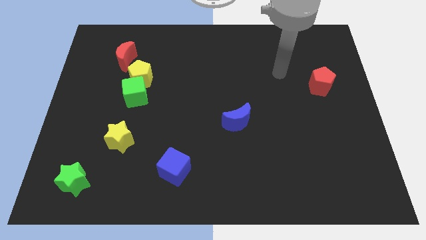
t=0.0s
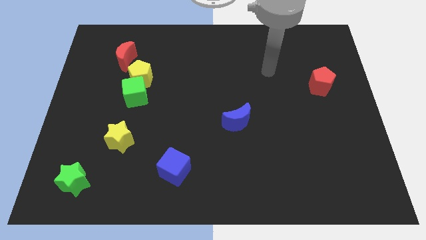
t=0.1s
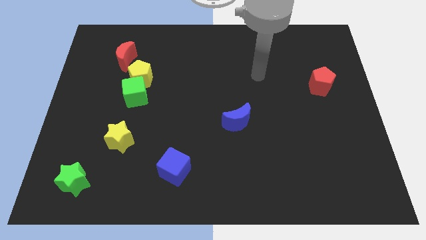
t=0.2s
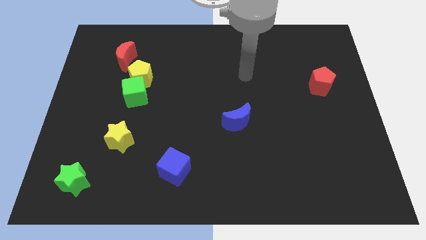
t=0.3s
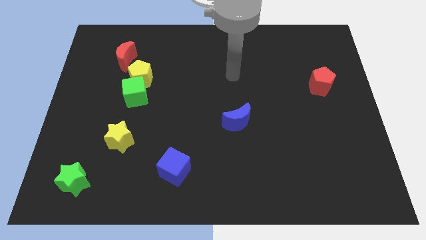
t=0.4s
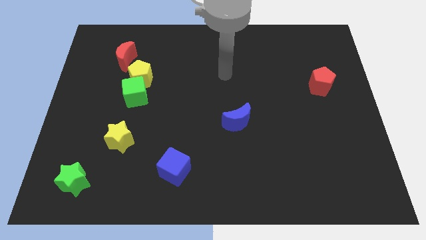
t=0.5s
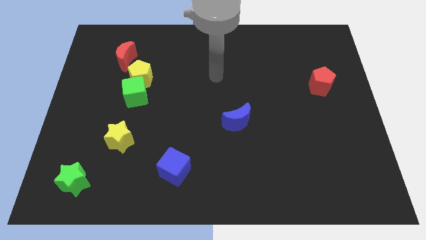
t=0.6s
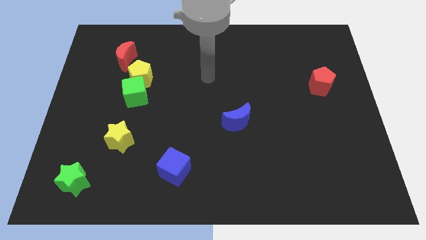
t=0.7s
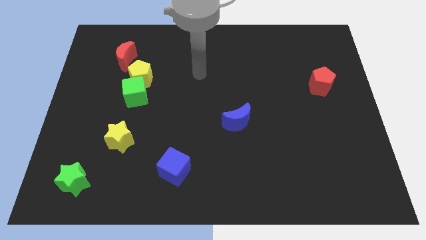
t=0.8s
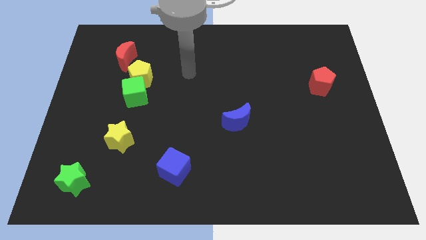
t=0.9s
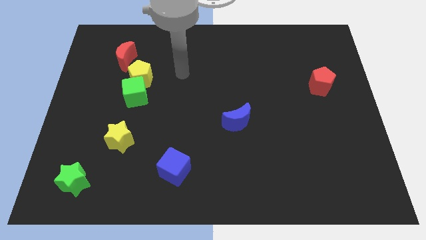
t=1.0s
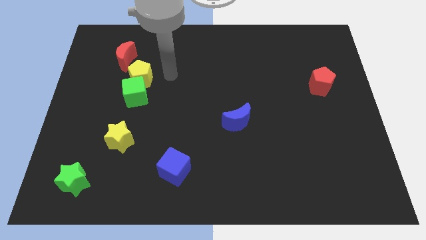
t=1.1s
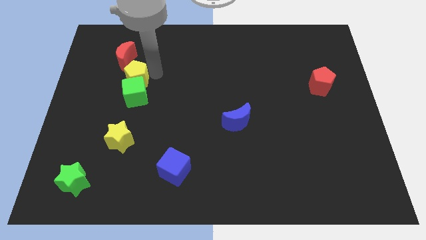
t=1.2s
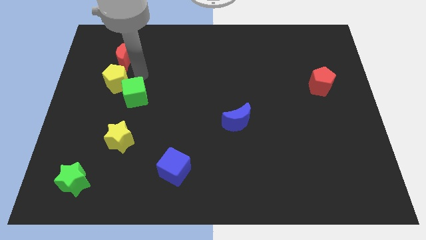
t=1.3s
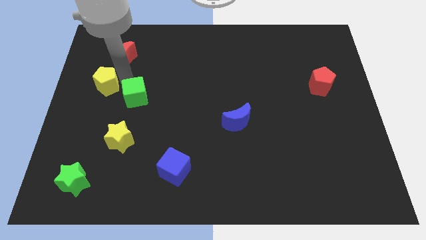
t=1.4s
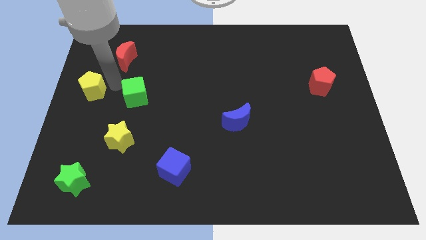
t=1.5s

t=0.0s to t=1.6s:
separate the green cube from the yellow pentagon

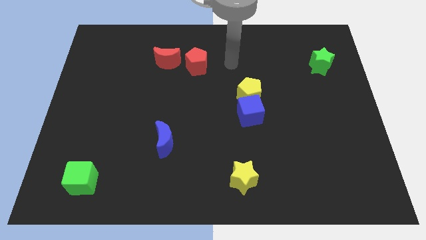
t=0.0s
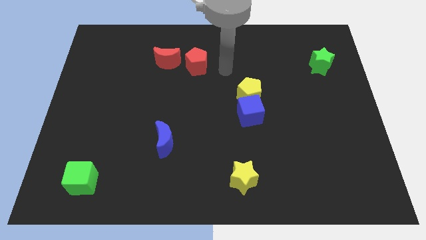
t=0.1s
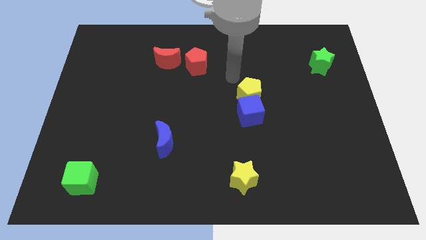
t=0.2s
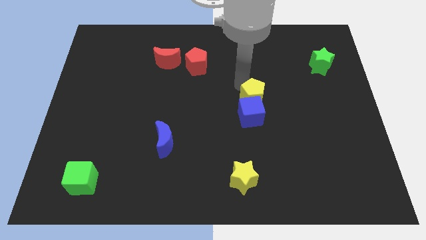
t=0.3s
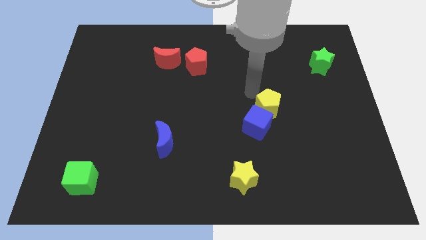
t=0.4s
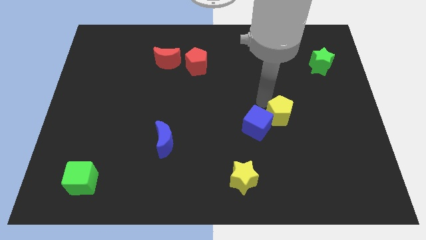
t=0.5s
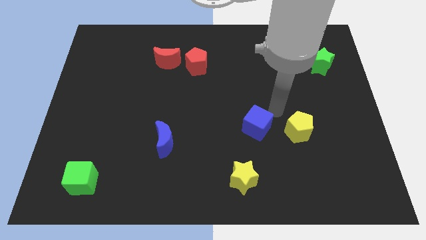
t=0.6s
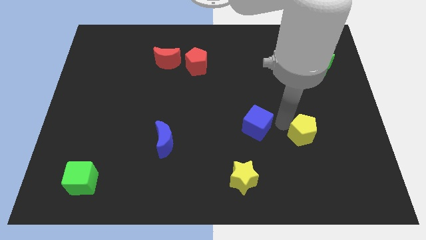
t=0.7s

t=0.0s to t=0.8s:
separate the blue cube from the yellow pentagon

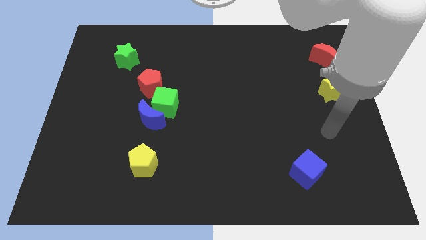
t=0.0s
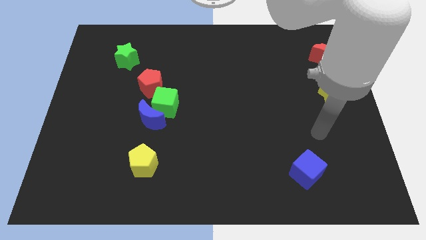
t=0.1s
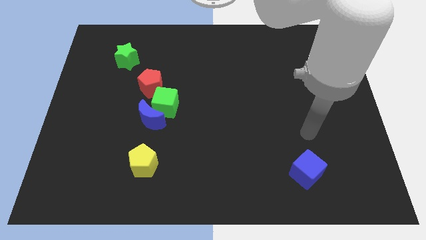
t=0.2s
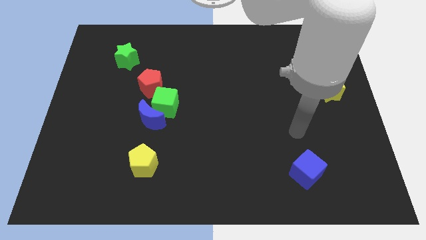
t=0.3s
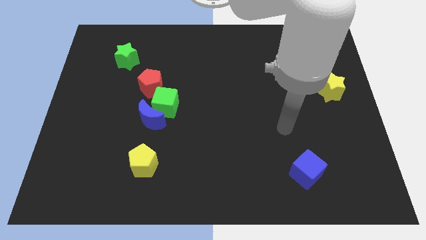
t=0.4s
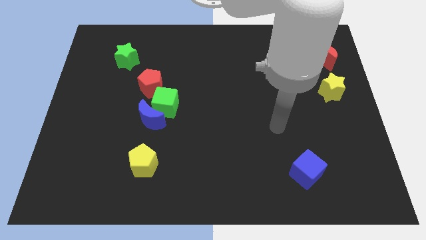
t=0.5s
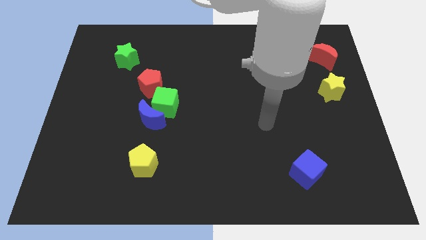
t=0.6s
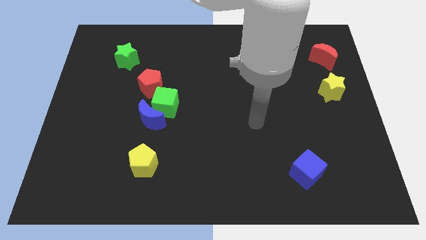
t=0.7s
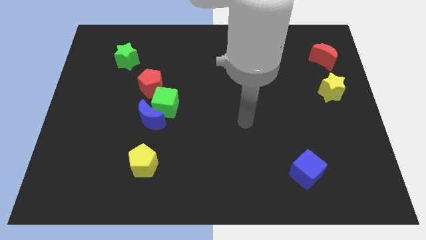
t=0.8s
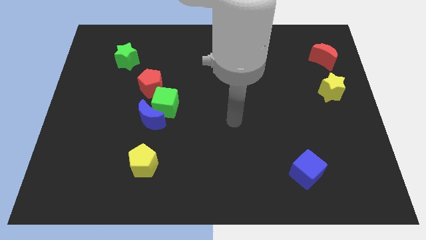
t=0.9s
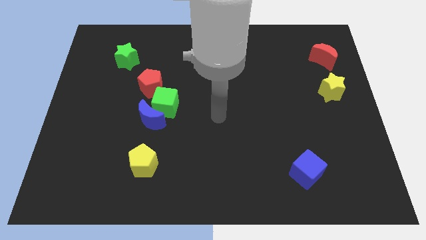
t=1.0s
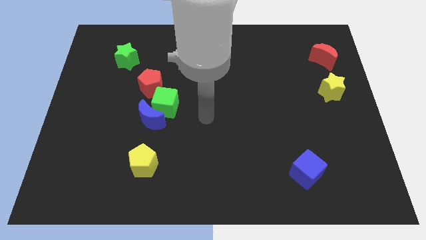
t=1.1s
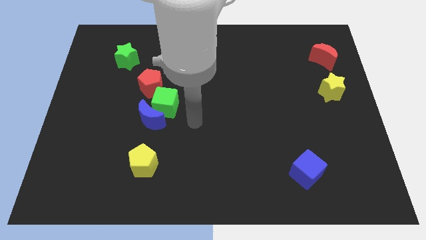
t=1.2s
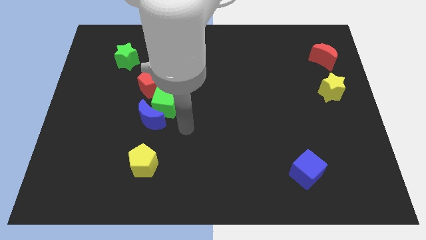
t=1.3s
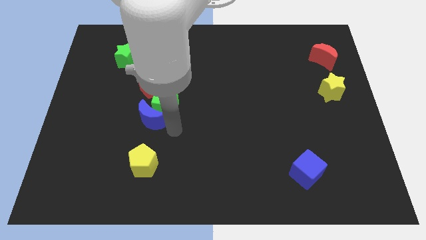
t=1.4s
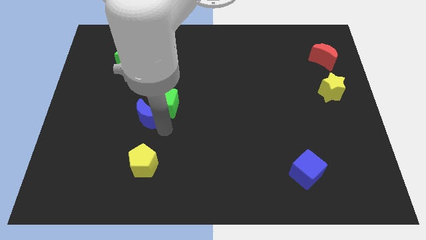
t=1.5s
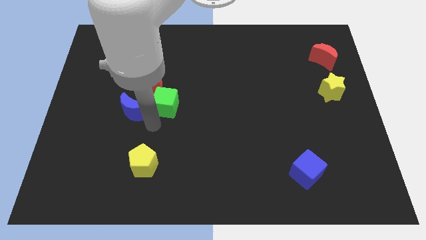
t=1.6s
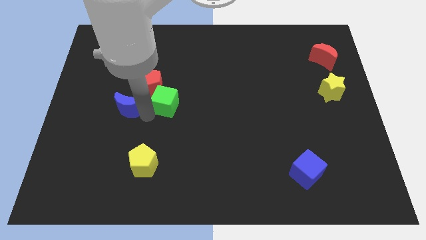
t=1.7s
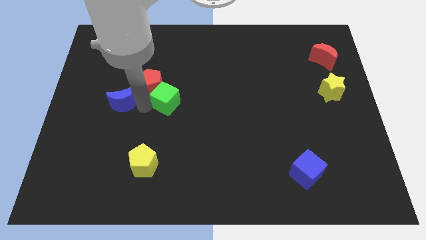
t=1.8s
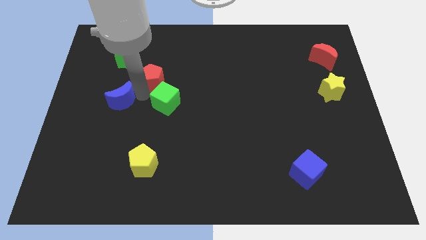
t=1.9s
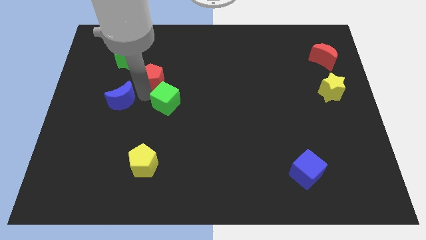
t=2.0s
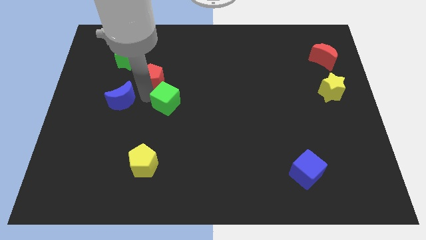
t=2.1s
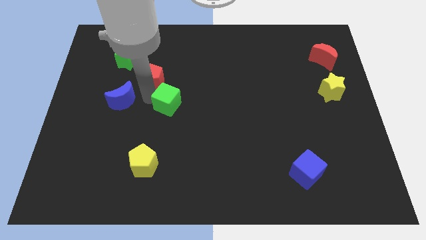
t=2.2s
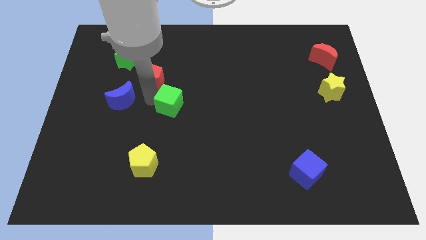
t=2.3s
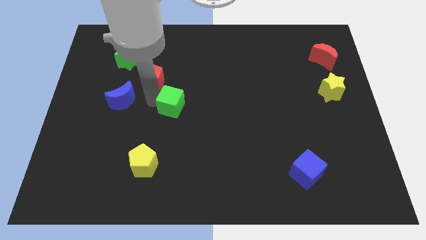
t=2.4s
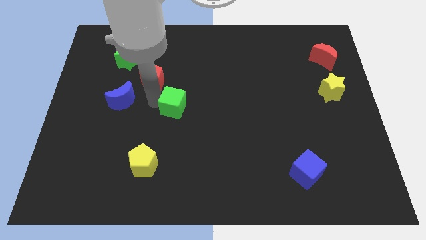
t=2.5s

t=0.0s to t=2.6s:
separate the green cube from the blue moon and red pentagon

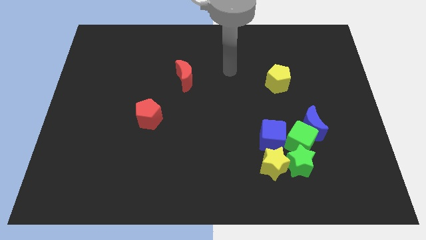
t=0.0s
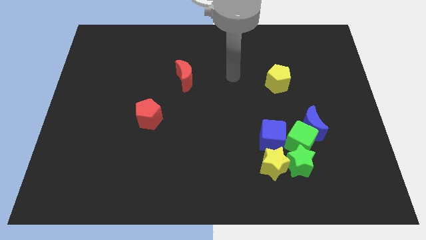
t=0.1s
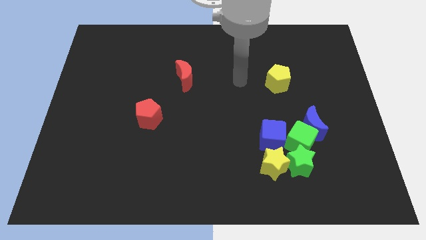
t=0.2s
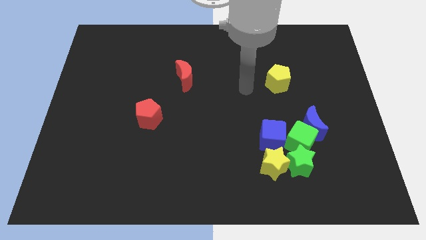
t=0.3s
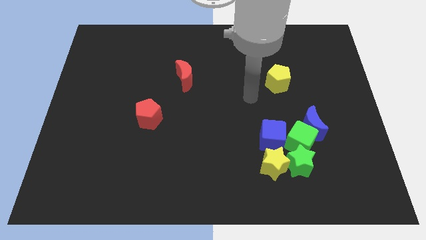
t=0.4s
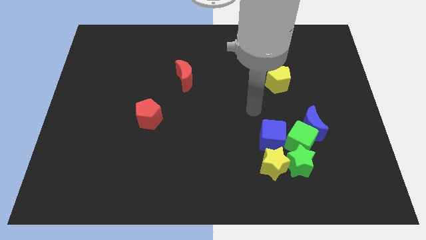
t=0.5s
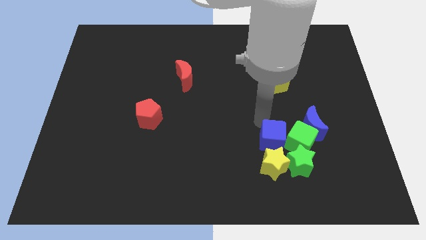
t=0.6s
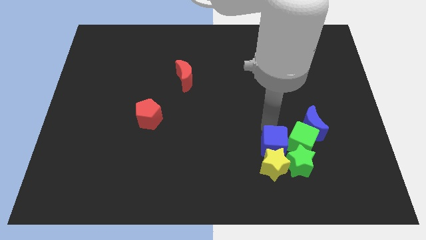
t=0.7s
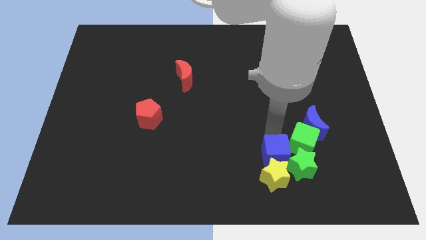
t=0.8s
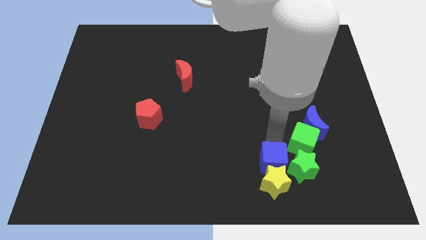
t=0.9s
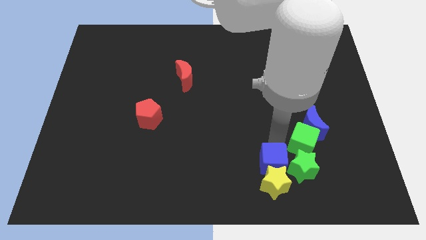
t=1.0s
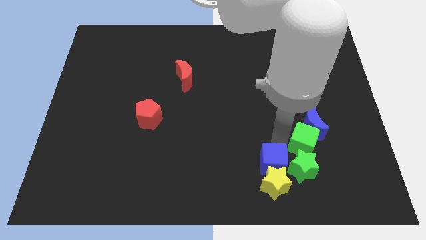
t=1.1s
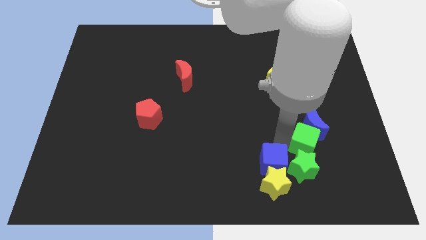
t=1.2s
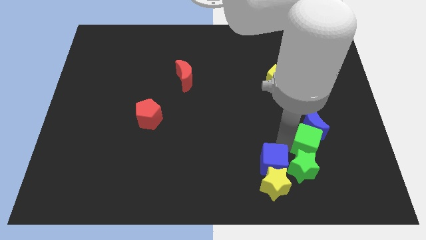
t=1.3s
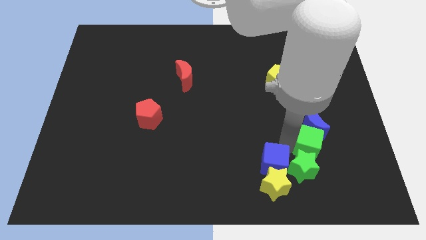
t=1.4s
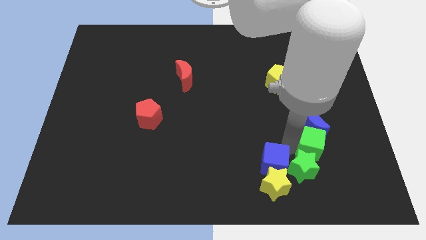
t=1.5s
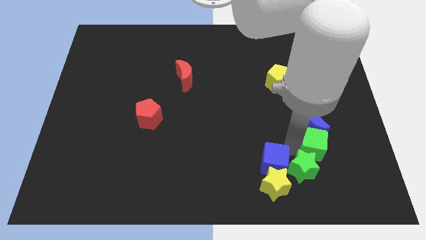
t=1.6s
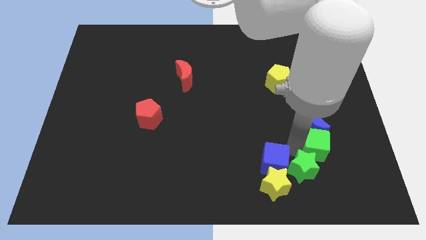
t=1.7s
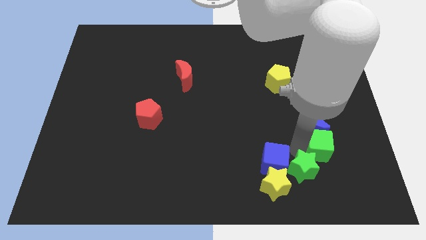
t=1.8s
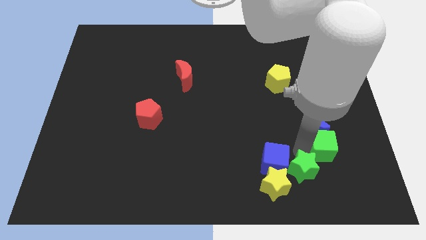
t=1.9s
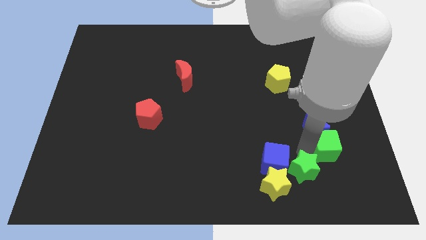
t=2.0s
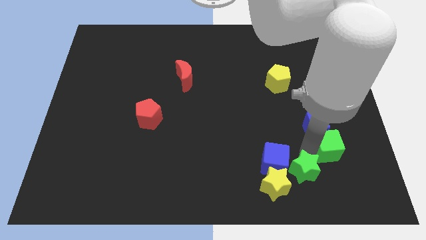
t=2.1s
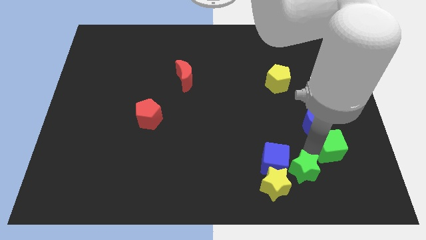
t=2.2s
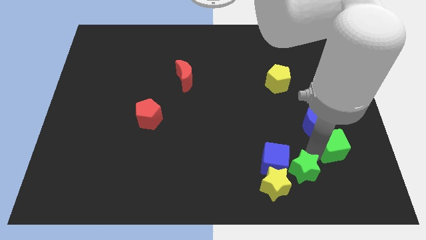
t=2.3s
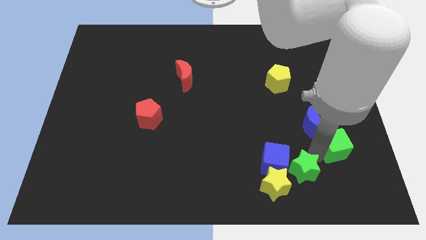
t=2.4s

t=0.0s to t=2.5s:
pull the green cube apart from the group

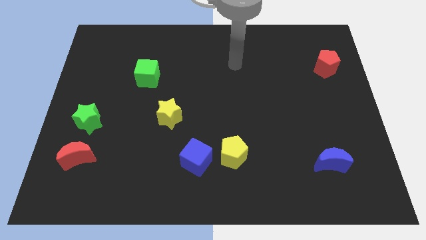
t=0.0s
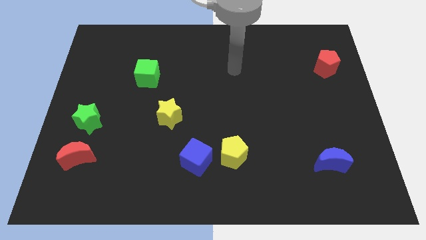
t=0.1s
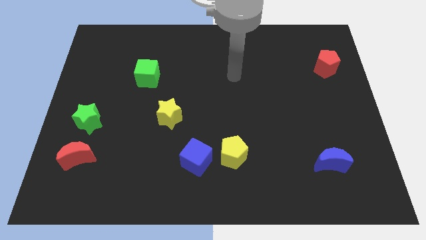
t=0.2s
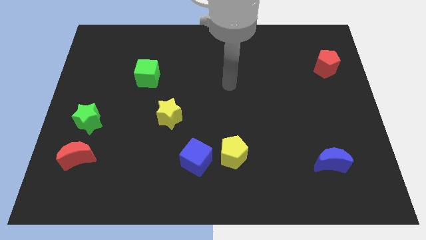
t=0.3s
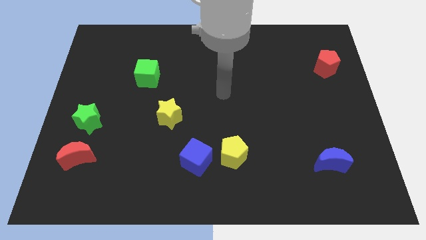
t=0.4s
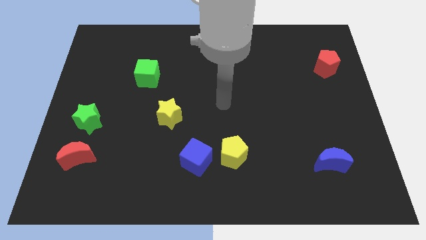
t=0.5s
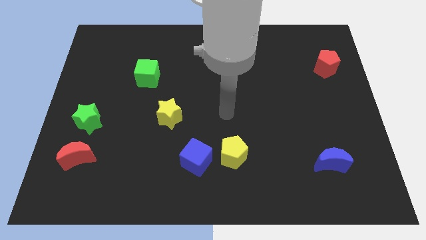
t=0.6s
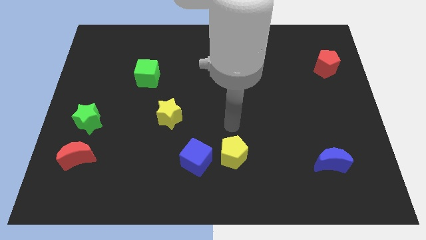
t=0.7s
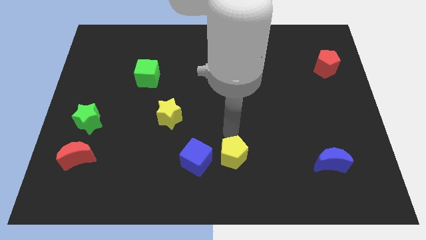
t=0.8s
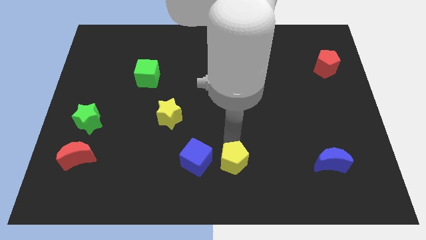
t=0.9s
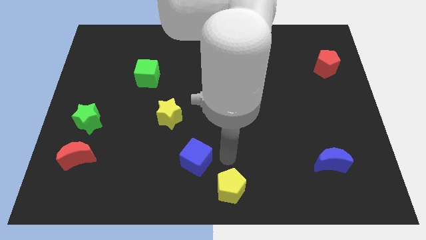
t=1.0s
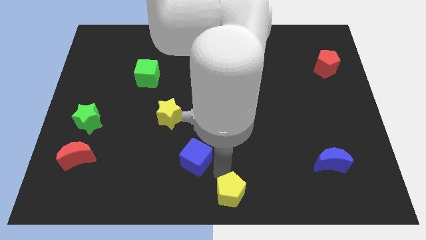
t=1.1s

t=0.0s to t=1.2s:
pull the blue cube apart from the yellow pentagon

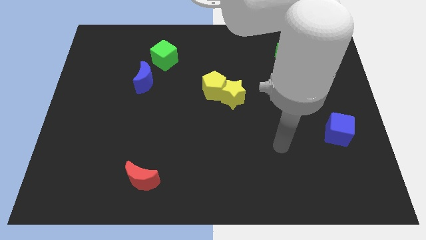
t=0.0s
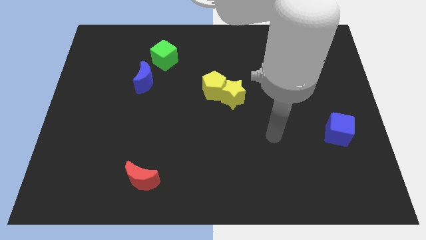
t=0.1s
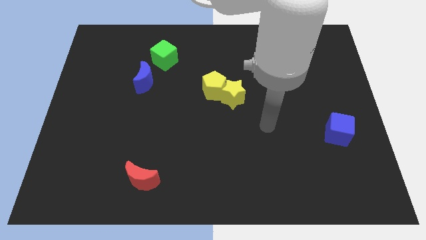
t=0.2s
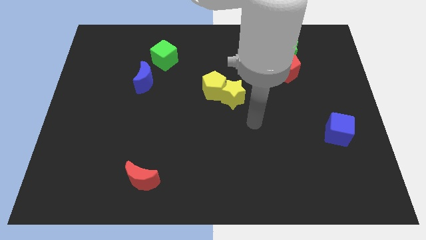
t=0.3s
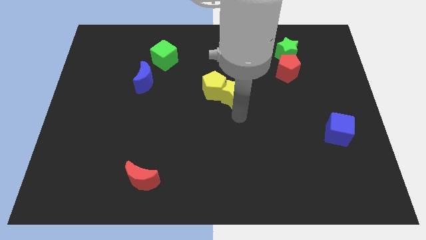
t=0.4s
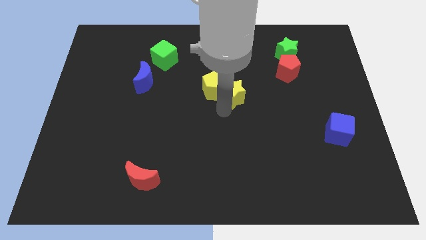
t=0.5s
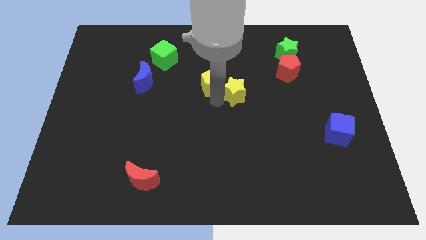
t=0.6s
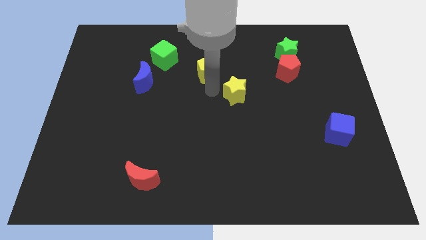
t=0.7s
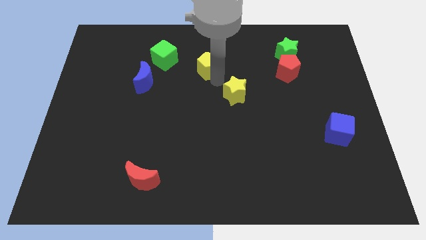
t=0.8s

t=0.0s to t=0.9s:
separate the yellow star from the yellow pentagon
